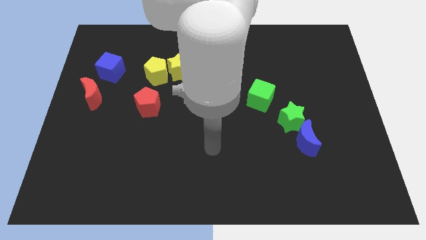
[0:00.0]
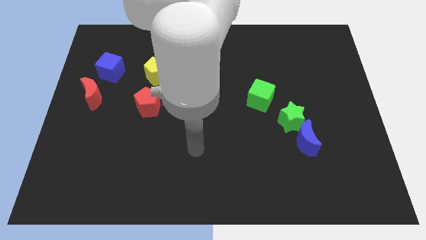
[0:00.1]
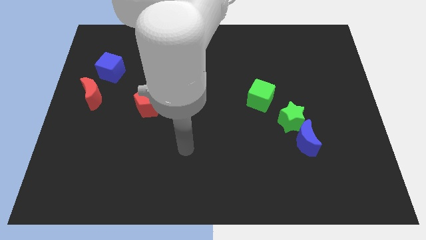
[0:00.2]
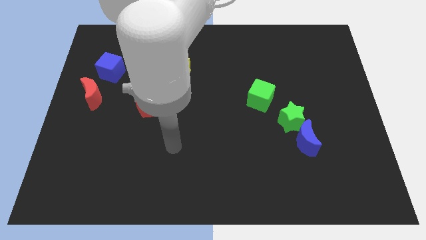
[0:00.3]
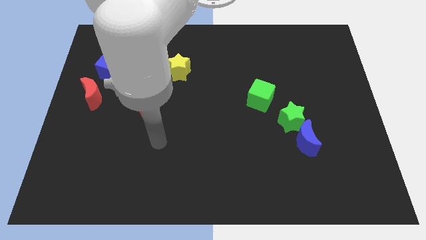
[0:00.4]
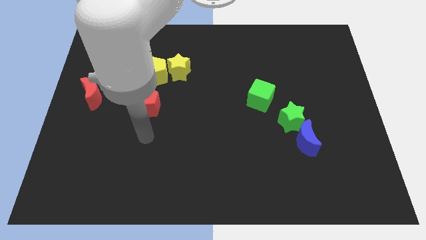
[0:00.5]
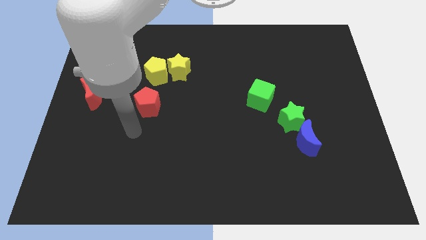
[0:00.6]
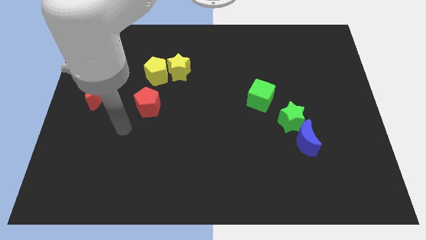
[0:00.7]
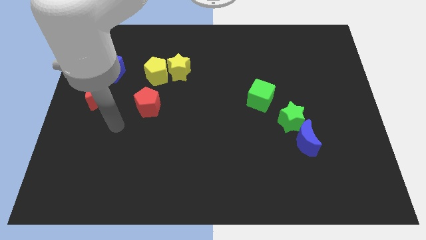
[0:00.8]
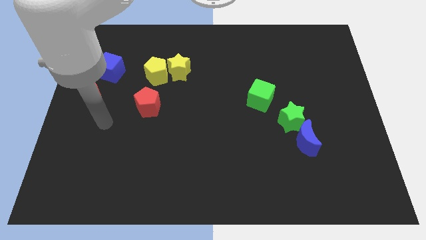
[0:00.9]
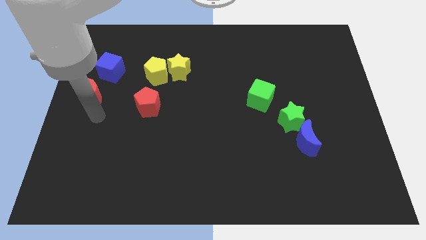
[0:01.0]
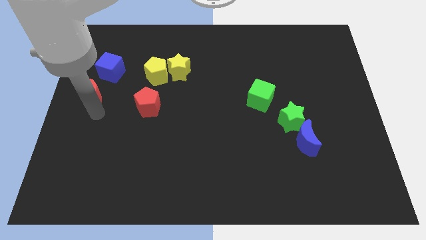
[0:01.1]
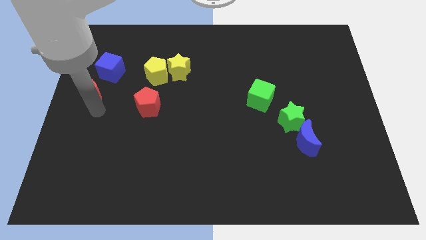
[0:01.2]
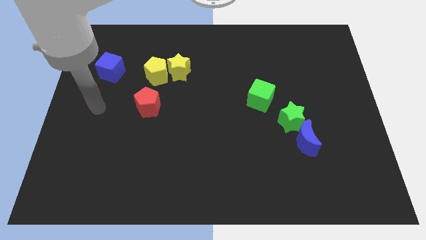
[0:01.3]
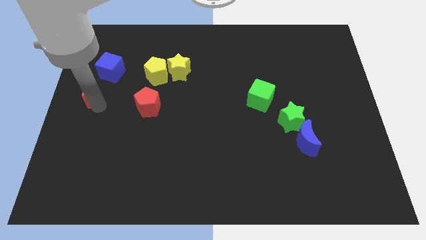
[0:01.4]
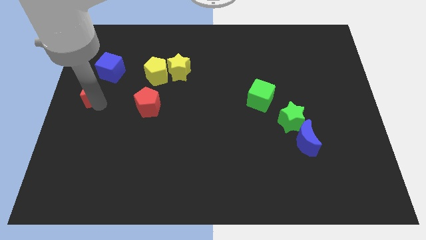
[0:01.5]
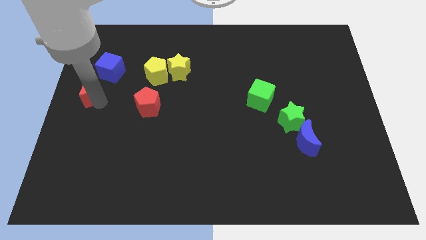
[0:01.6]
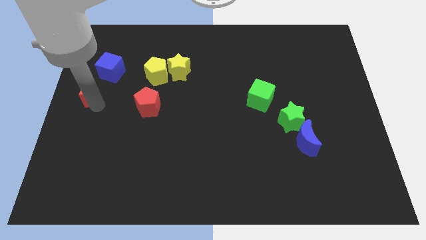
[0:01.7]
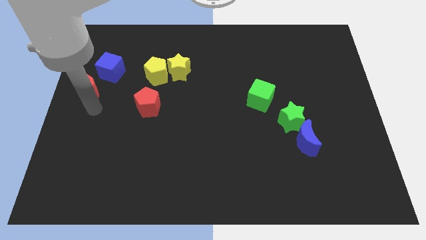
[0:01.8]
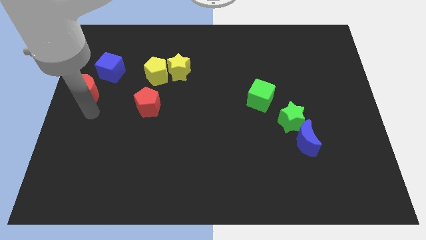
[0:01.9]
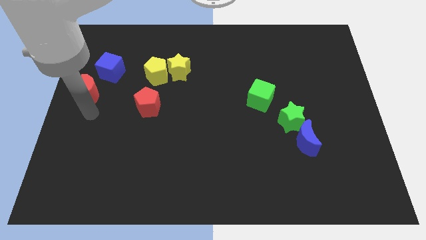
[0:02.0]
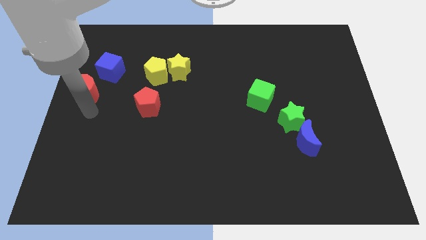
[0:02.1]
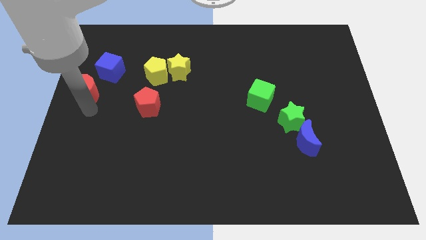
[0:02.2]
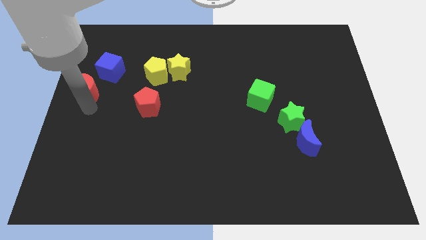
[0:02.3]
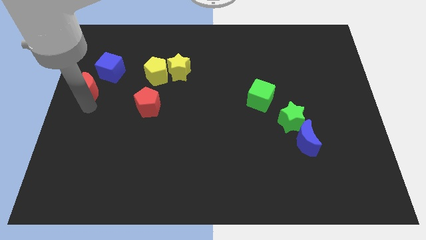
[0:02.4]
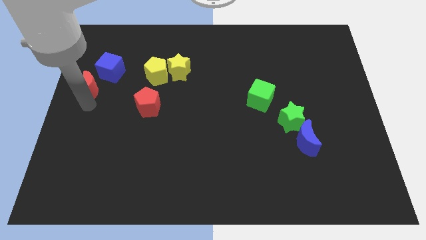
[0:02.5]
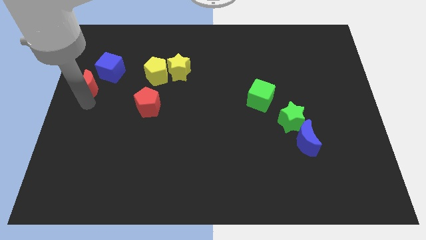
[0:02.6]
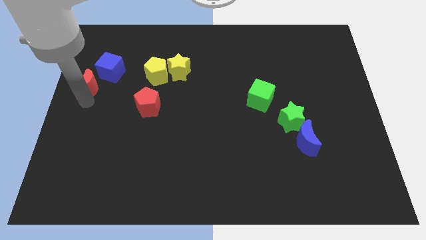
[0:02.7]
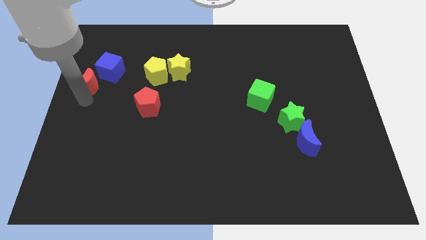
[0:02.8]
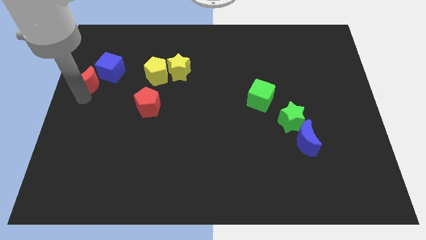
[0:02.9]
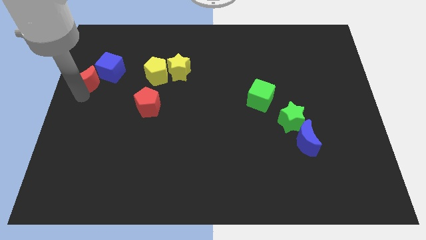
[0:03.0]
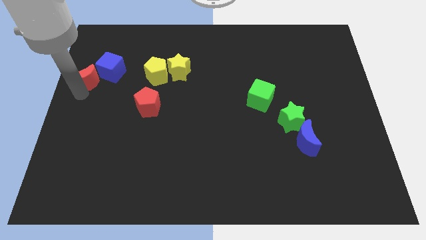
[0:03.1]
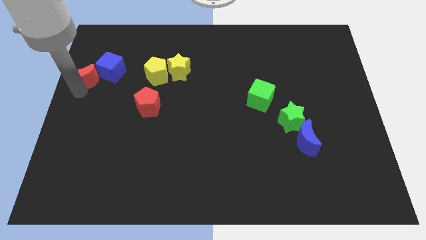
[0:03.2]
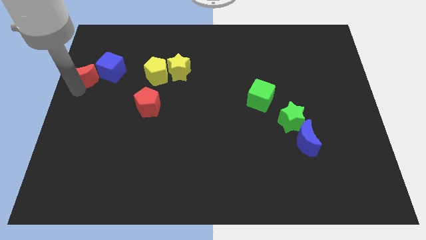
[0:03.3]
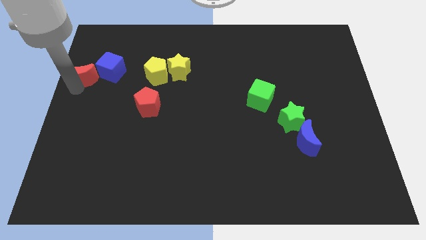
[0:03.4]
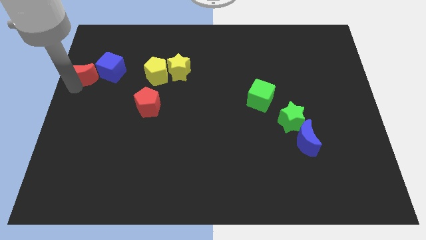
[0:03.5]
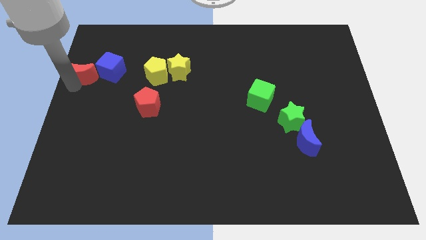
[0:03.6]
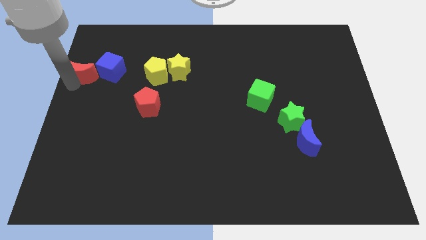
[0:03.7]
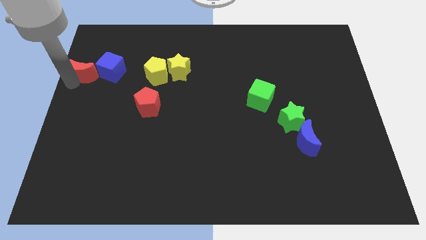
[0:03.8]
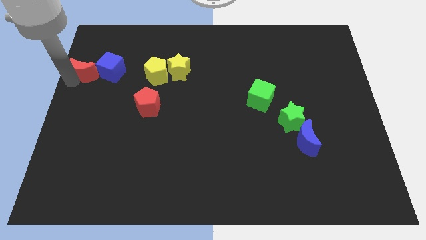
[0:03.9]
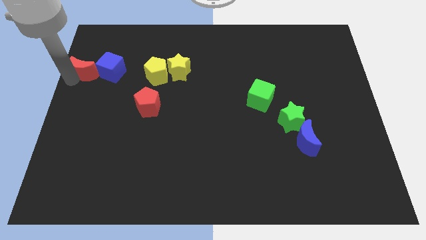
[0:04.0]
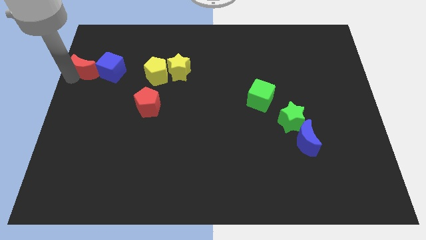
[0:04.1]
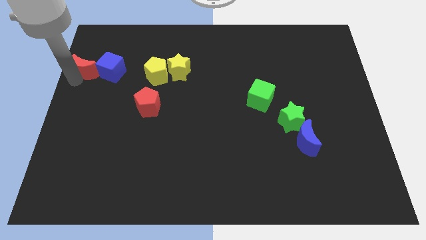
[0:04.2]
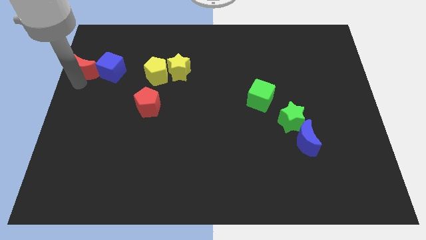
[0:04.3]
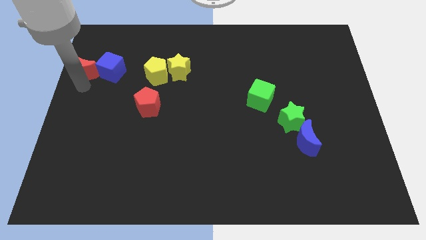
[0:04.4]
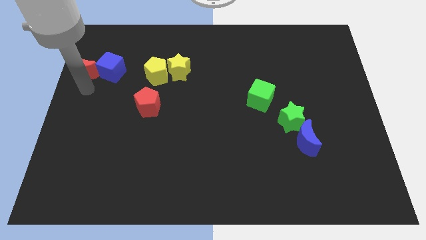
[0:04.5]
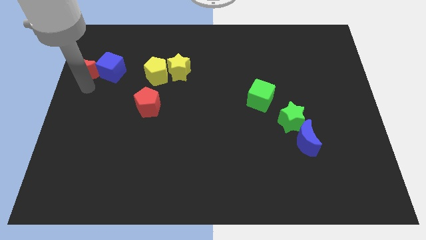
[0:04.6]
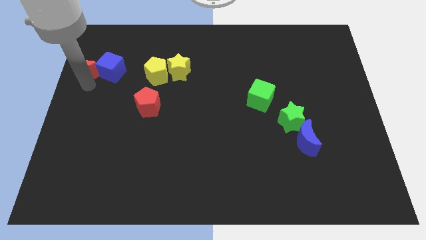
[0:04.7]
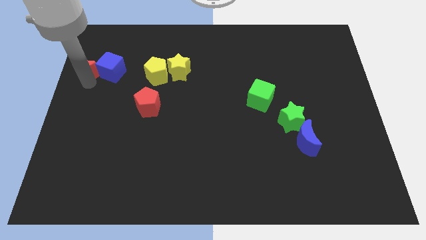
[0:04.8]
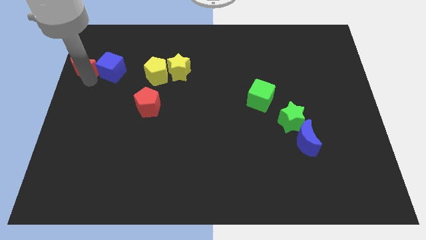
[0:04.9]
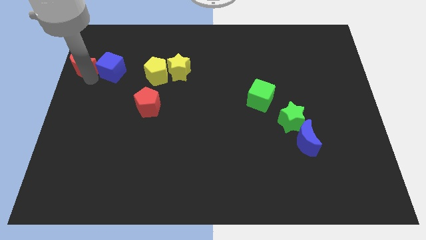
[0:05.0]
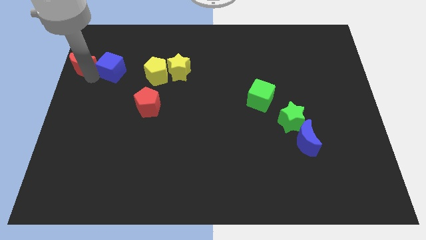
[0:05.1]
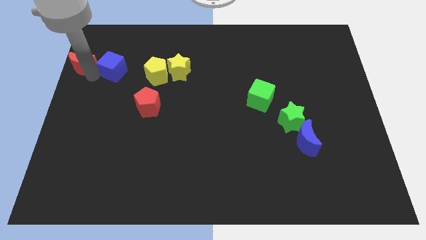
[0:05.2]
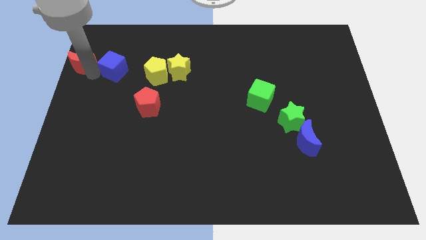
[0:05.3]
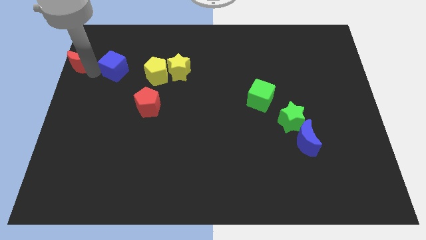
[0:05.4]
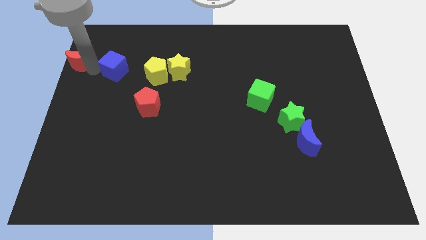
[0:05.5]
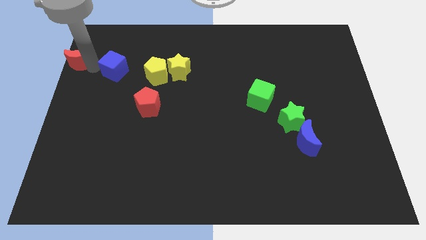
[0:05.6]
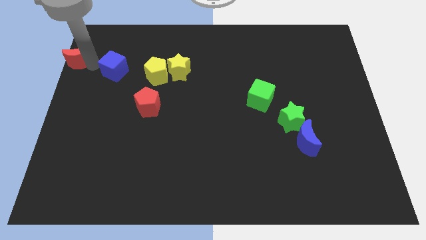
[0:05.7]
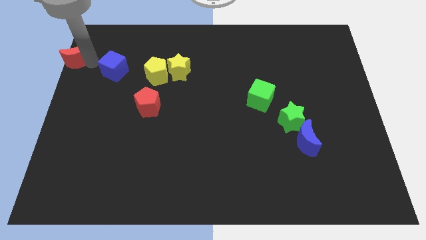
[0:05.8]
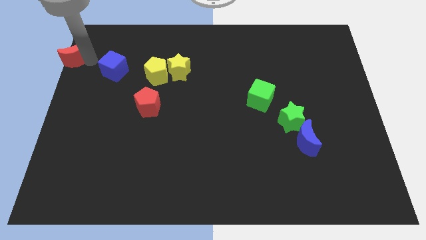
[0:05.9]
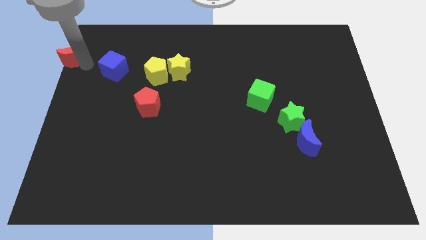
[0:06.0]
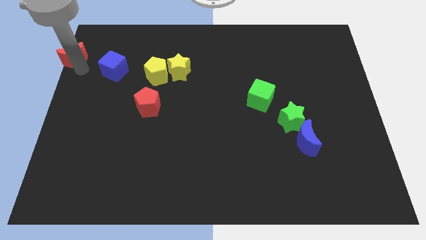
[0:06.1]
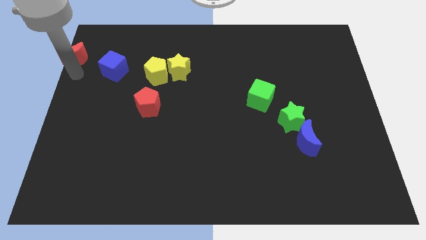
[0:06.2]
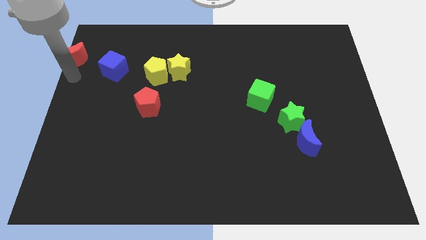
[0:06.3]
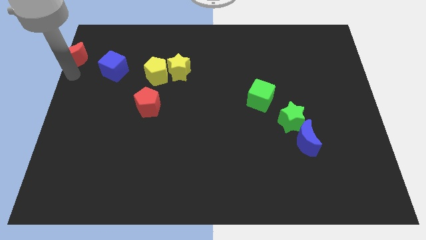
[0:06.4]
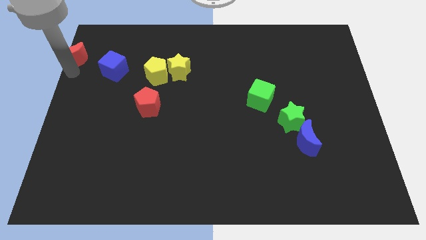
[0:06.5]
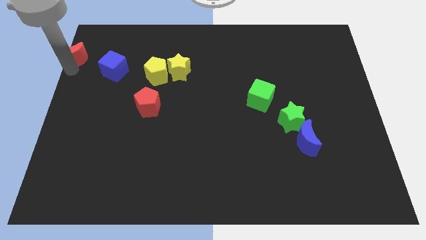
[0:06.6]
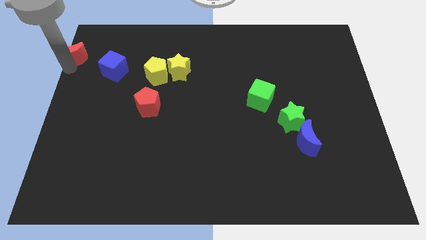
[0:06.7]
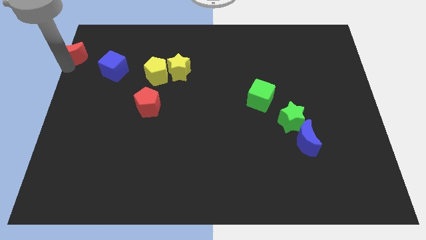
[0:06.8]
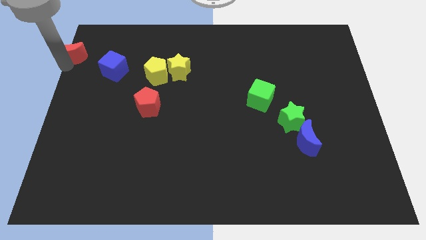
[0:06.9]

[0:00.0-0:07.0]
push the red moon to the top left
